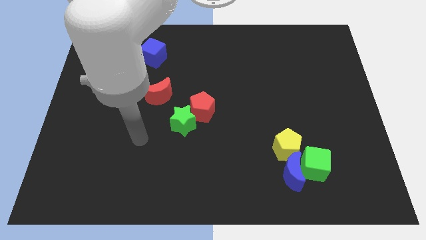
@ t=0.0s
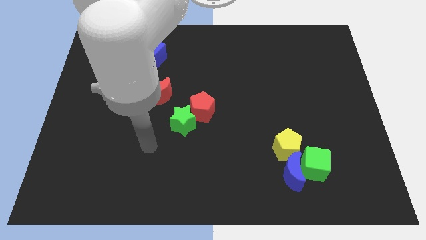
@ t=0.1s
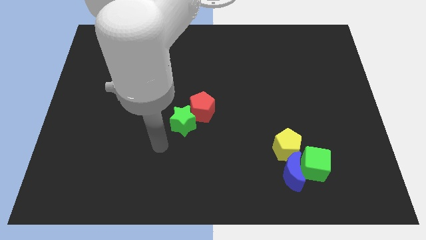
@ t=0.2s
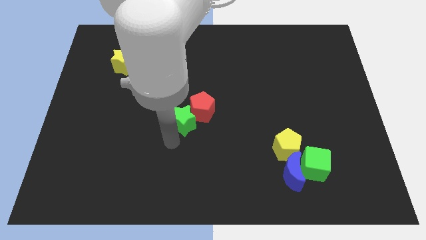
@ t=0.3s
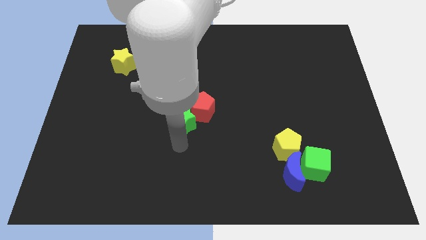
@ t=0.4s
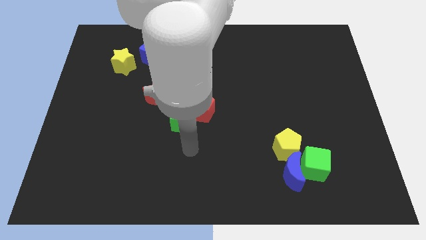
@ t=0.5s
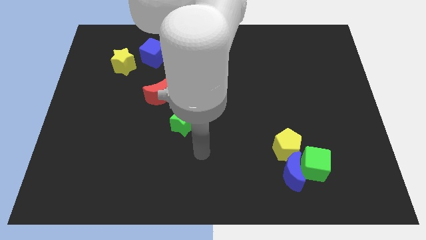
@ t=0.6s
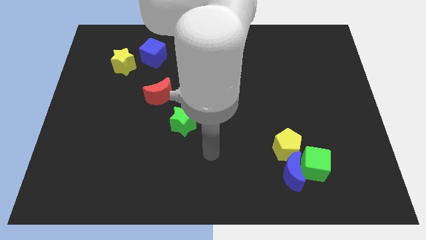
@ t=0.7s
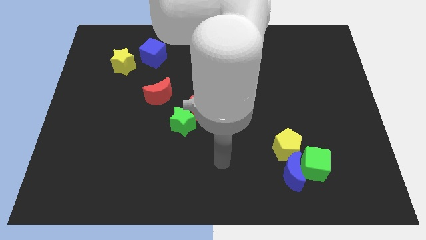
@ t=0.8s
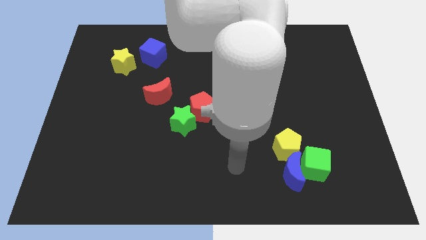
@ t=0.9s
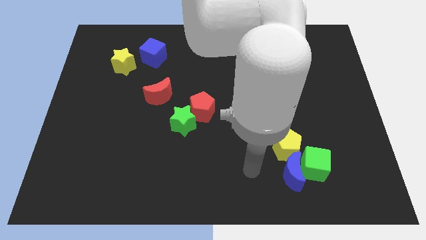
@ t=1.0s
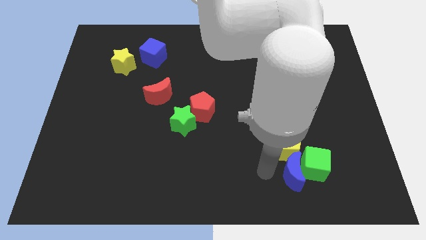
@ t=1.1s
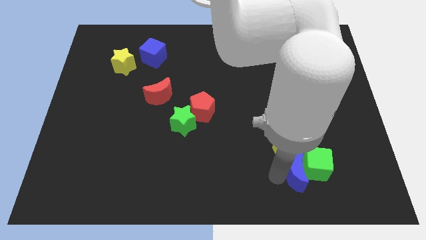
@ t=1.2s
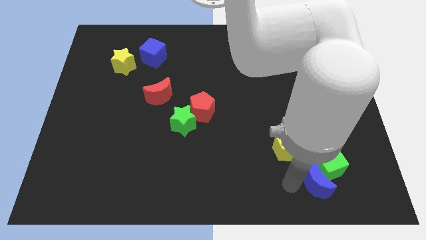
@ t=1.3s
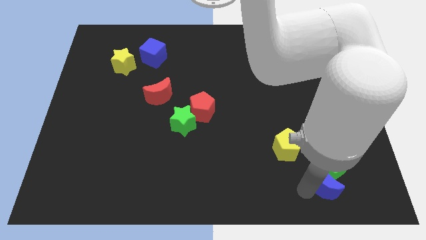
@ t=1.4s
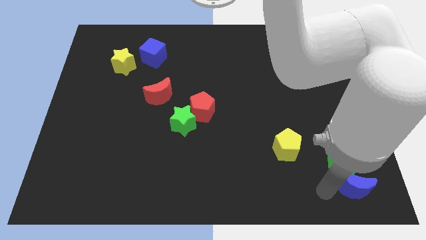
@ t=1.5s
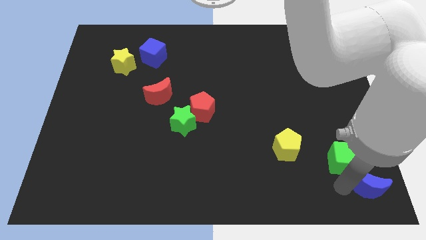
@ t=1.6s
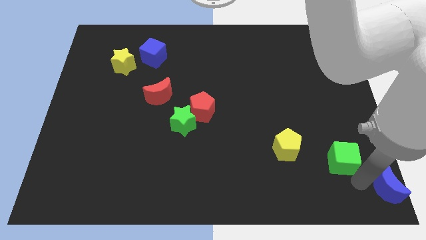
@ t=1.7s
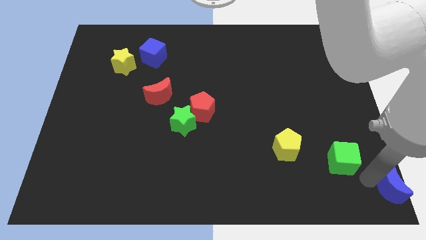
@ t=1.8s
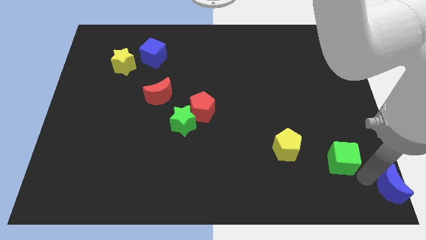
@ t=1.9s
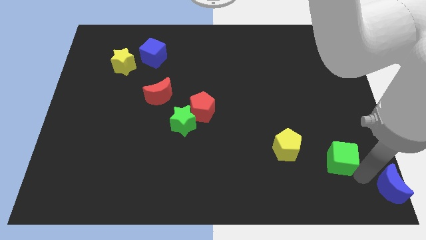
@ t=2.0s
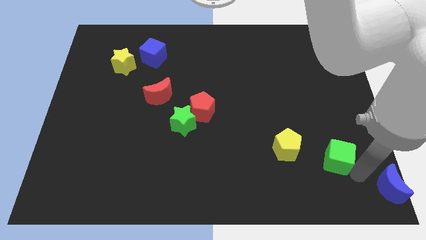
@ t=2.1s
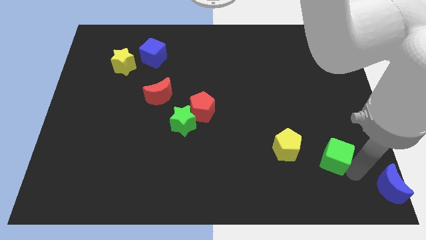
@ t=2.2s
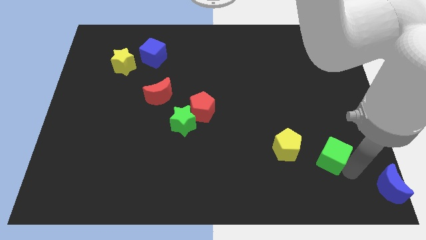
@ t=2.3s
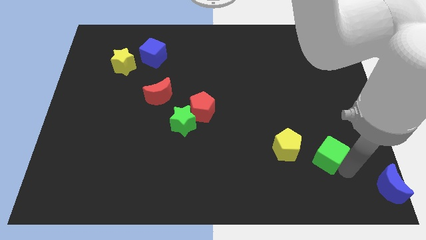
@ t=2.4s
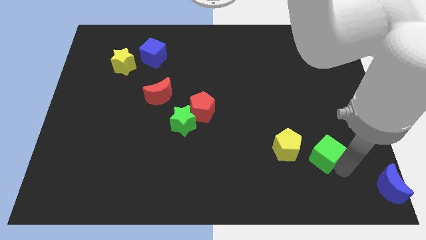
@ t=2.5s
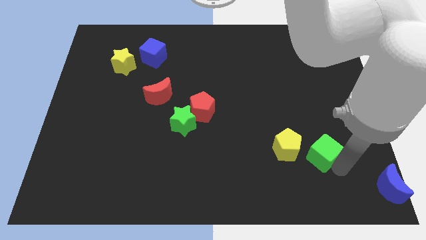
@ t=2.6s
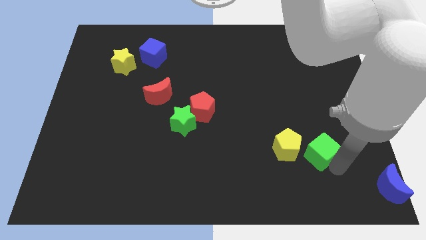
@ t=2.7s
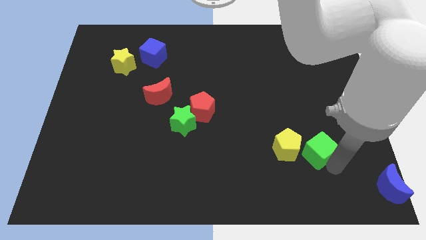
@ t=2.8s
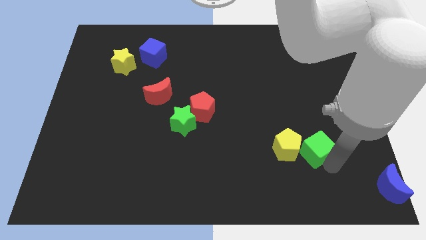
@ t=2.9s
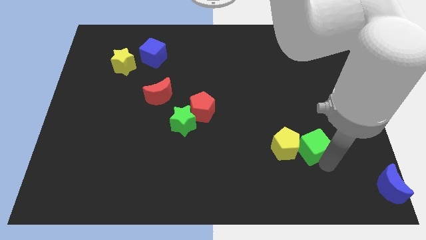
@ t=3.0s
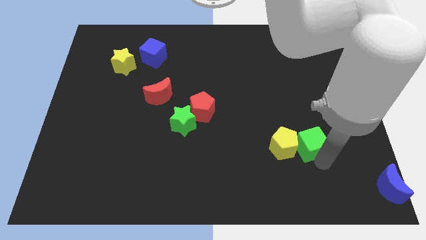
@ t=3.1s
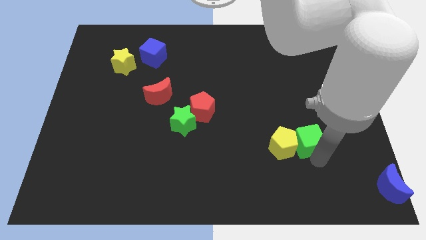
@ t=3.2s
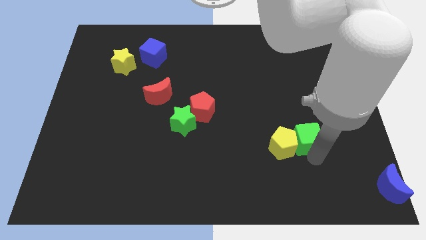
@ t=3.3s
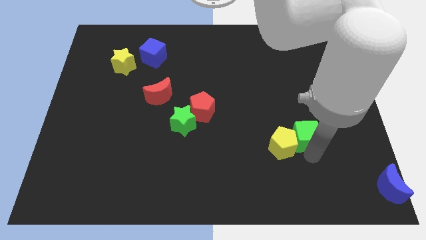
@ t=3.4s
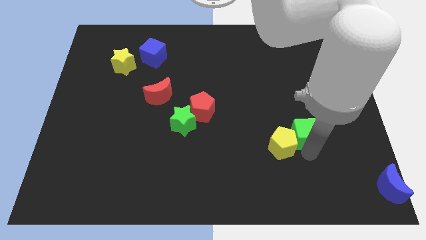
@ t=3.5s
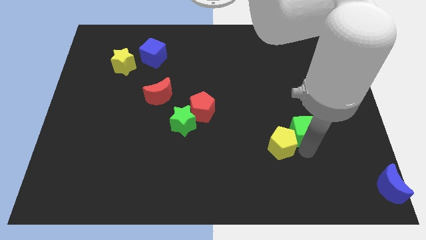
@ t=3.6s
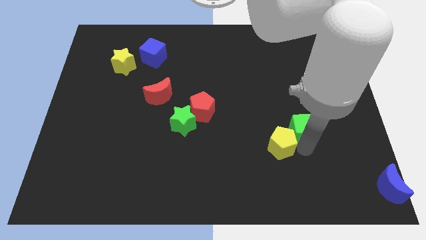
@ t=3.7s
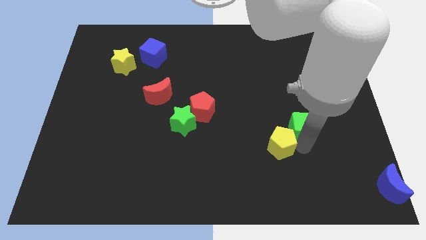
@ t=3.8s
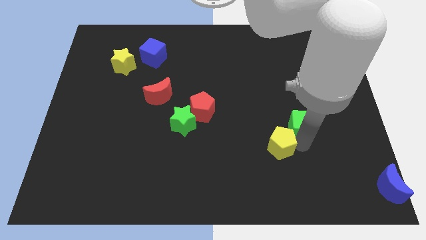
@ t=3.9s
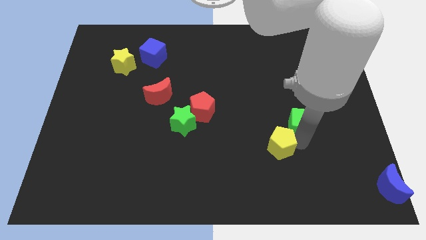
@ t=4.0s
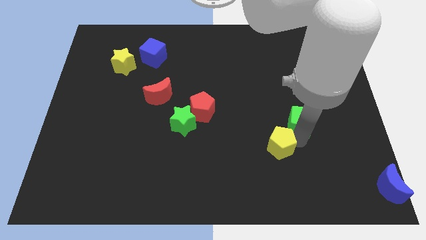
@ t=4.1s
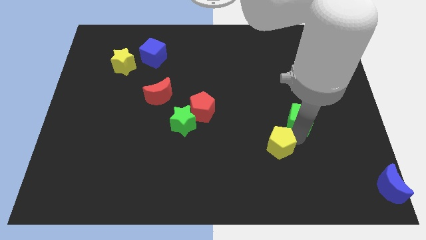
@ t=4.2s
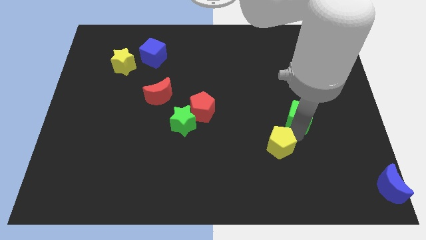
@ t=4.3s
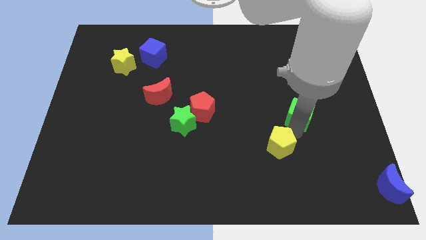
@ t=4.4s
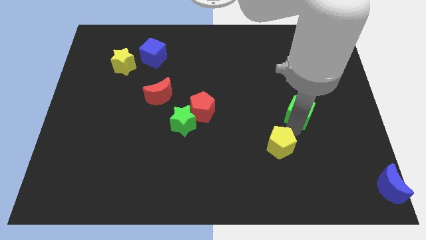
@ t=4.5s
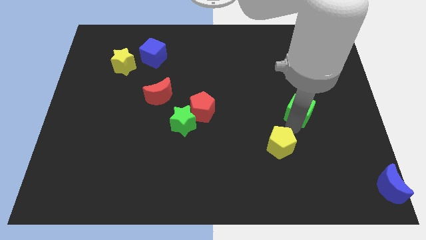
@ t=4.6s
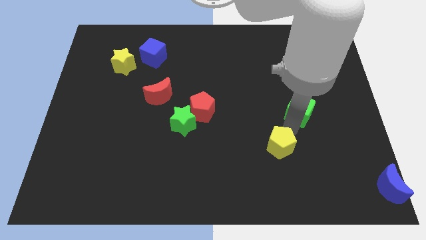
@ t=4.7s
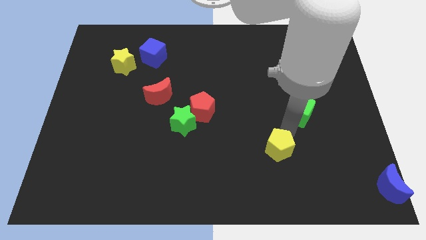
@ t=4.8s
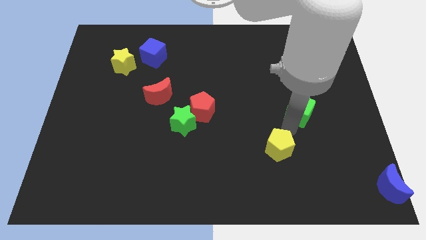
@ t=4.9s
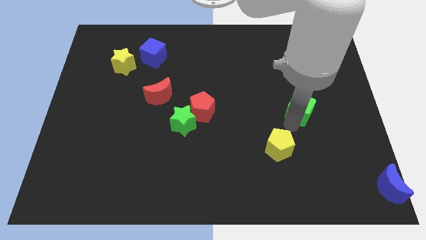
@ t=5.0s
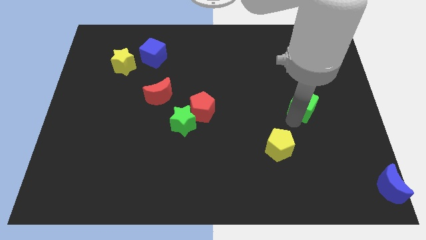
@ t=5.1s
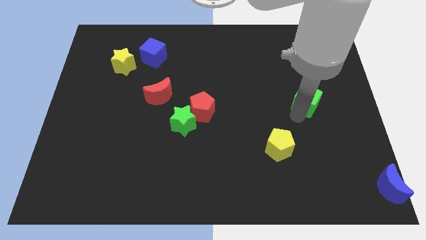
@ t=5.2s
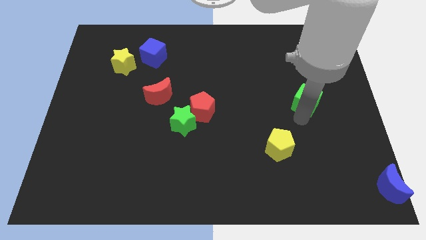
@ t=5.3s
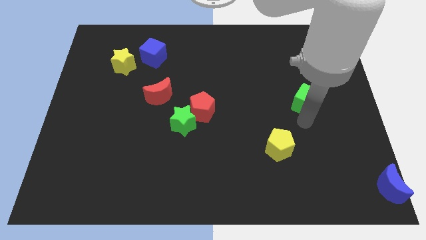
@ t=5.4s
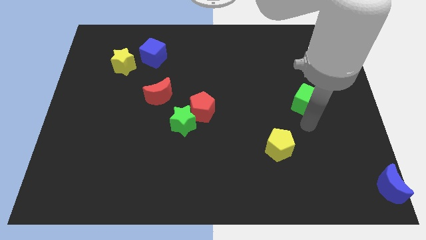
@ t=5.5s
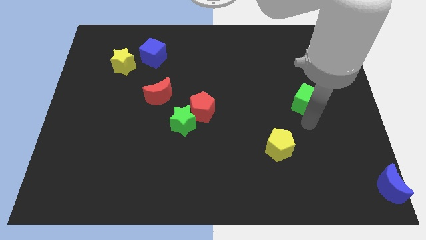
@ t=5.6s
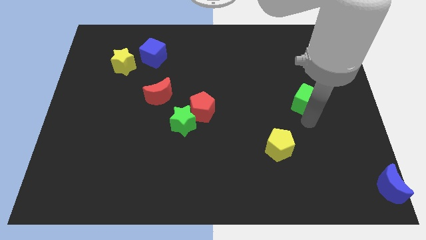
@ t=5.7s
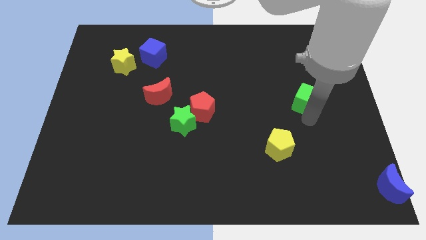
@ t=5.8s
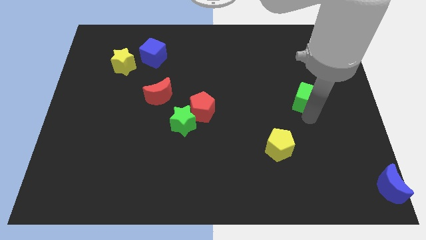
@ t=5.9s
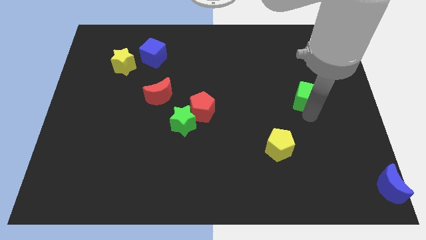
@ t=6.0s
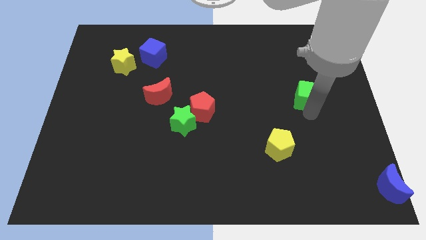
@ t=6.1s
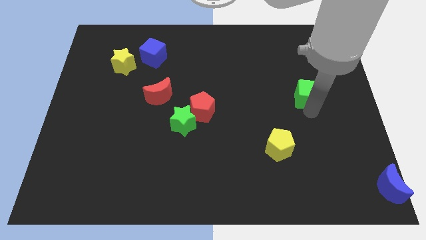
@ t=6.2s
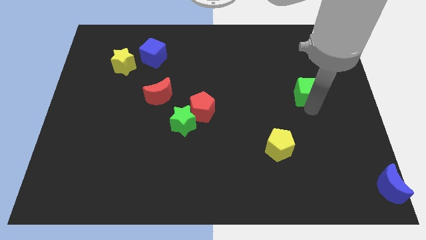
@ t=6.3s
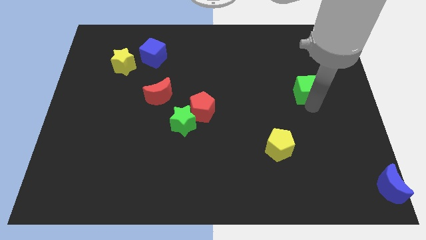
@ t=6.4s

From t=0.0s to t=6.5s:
slide the green cube up

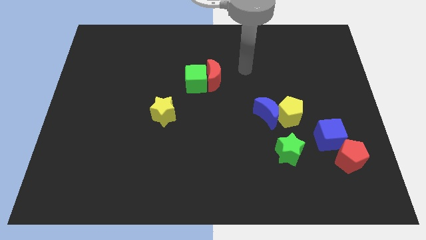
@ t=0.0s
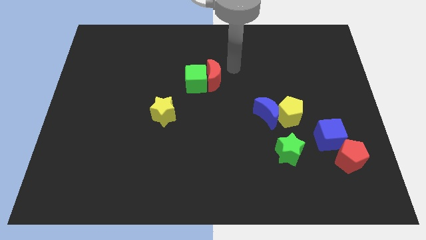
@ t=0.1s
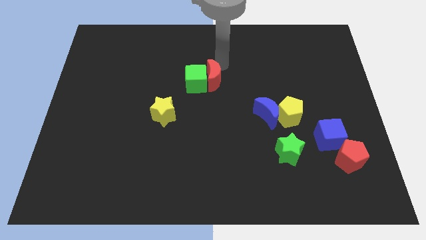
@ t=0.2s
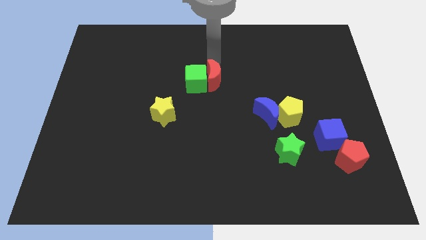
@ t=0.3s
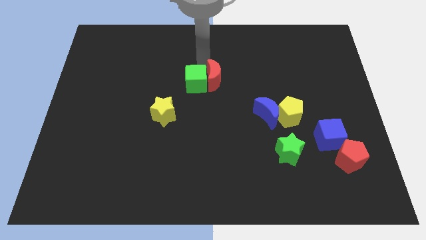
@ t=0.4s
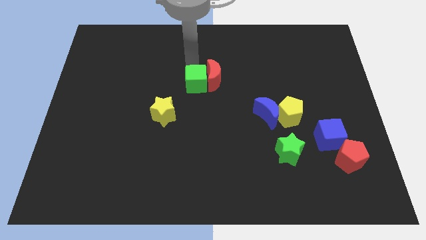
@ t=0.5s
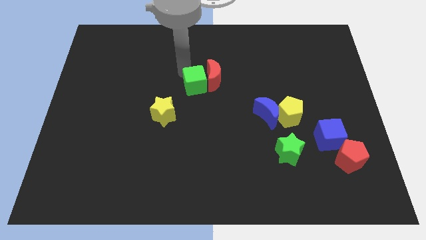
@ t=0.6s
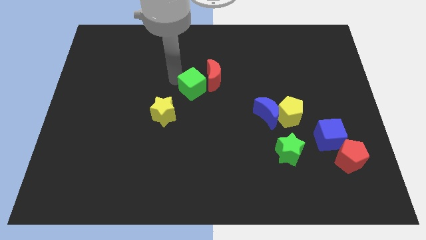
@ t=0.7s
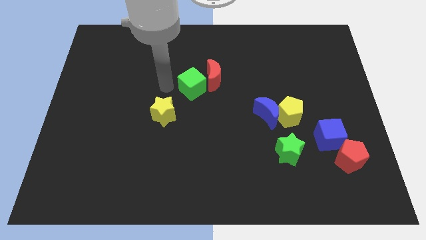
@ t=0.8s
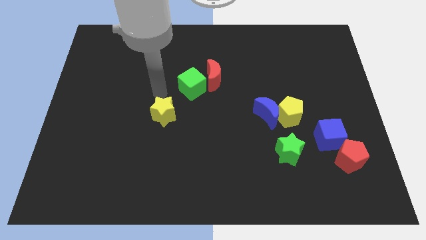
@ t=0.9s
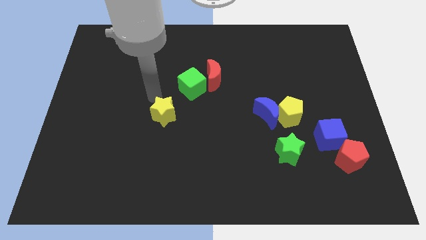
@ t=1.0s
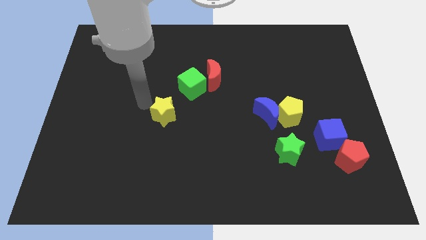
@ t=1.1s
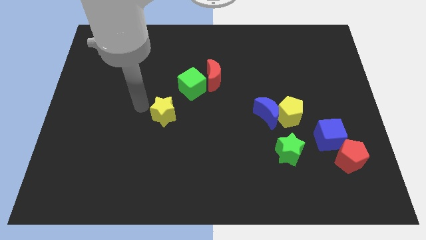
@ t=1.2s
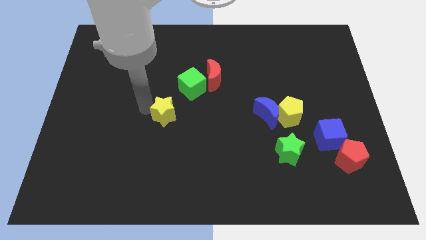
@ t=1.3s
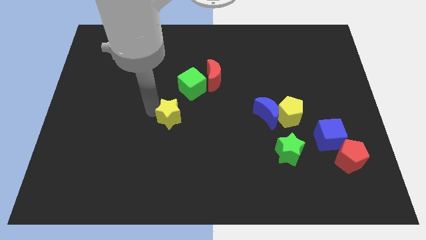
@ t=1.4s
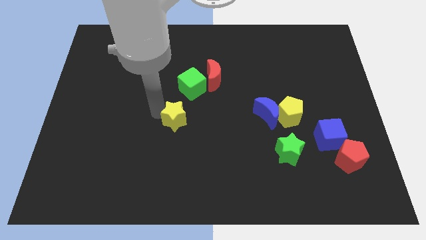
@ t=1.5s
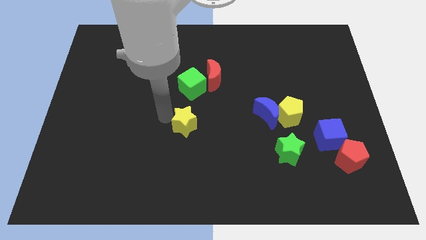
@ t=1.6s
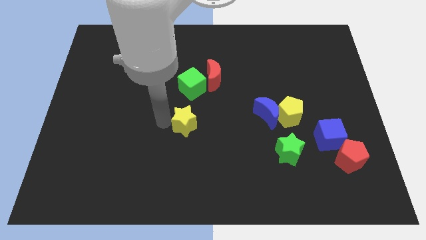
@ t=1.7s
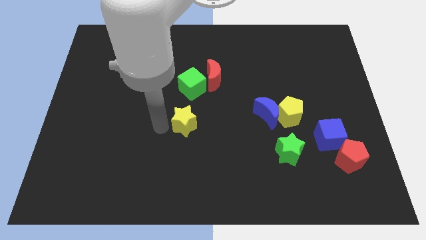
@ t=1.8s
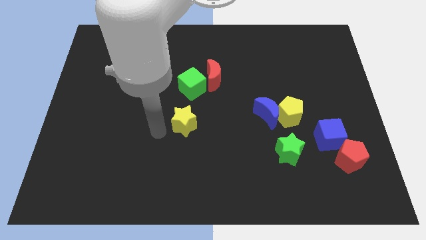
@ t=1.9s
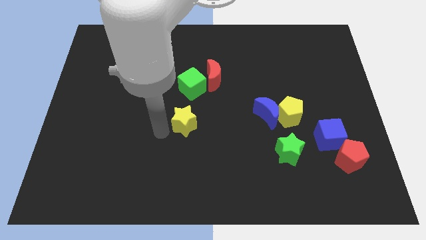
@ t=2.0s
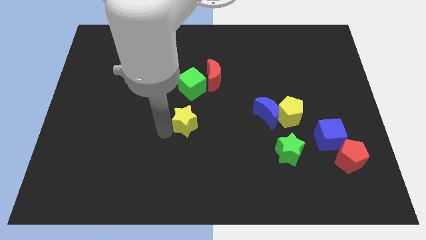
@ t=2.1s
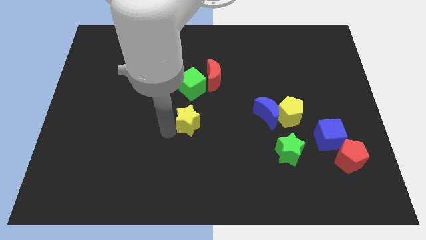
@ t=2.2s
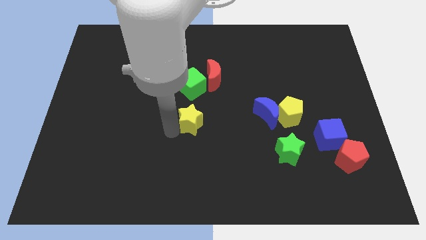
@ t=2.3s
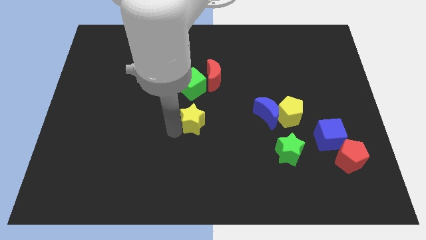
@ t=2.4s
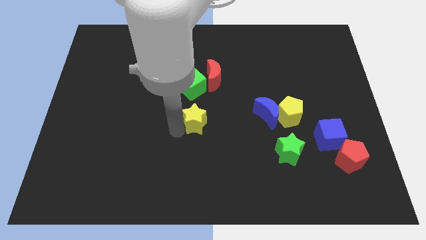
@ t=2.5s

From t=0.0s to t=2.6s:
push the yellow star to the right a bit
